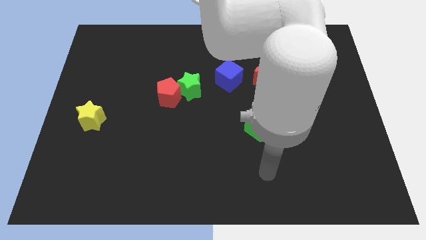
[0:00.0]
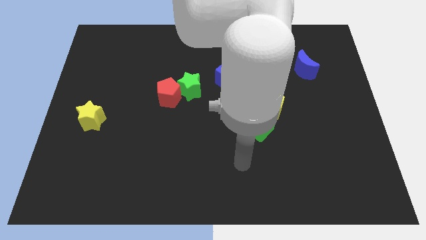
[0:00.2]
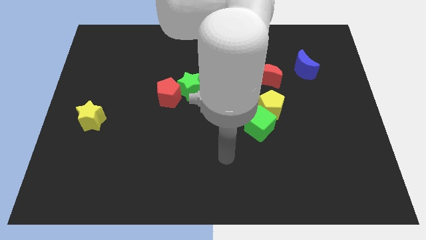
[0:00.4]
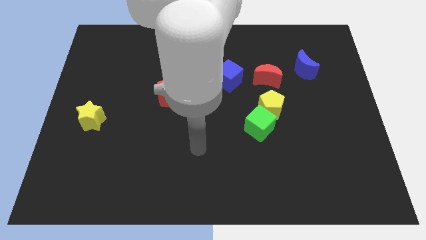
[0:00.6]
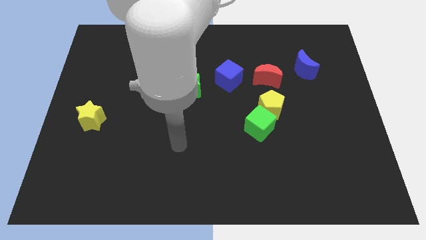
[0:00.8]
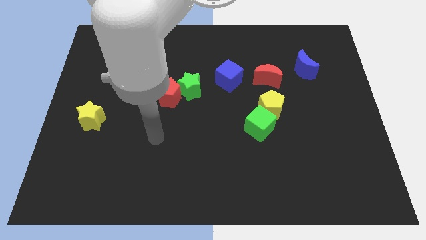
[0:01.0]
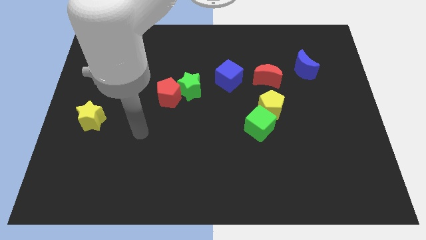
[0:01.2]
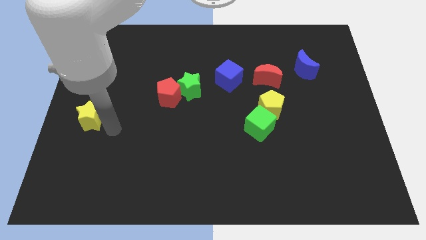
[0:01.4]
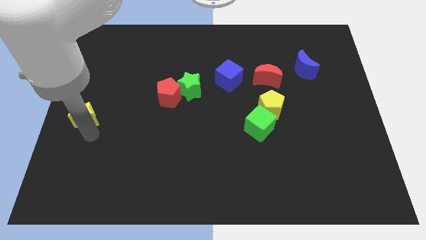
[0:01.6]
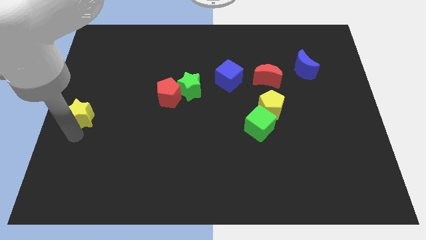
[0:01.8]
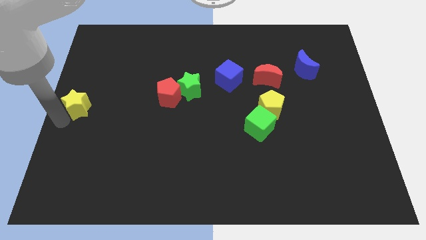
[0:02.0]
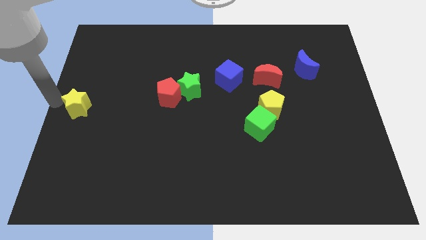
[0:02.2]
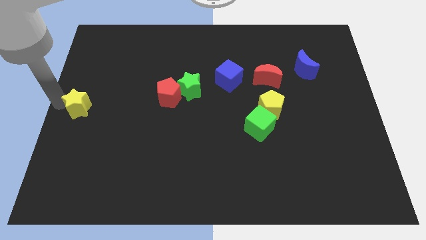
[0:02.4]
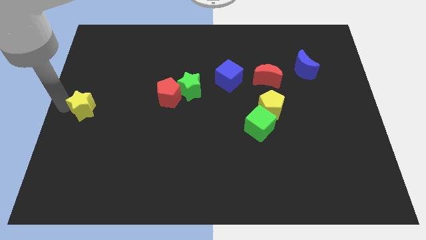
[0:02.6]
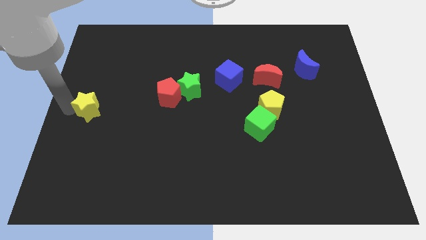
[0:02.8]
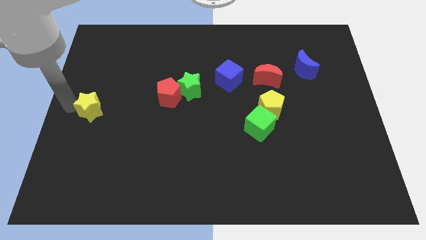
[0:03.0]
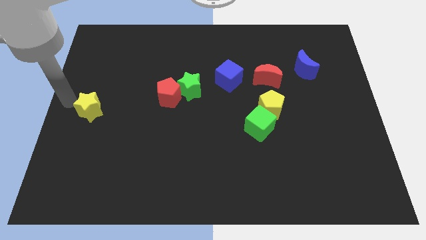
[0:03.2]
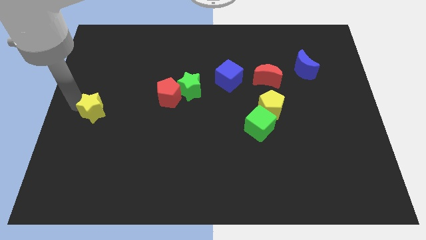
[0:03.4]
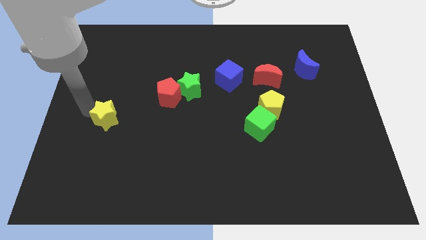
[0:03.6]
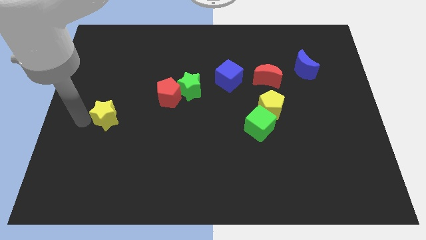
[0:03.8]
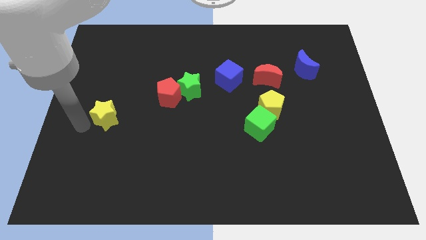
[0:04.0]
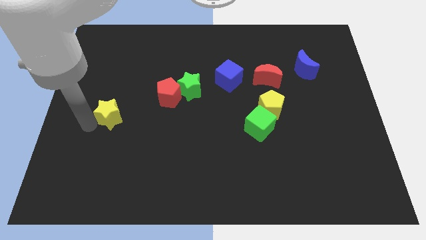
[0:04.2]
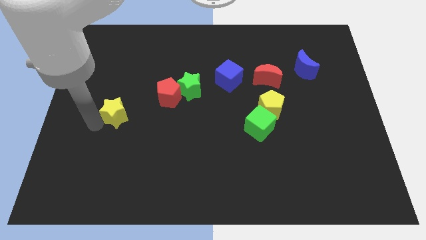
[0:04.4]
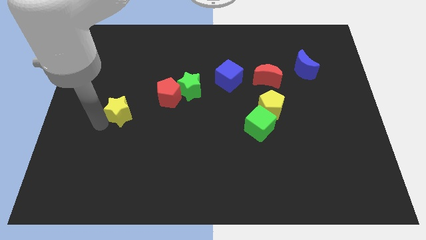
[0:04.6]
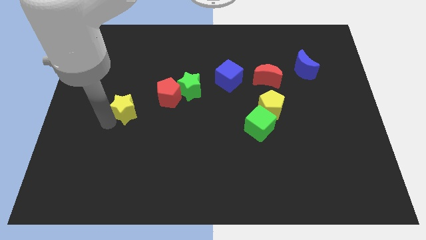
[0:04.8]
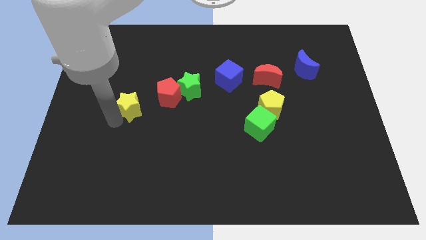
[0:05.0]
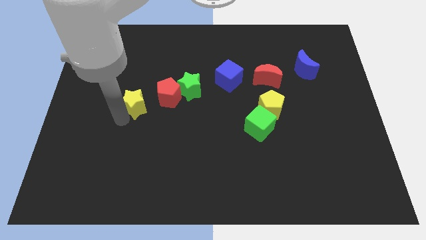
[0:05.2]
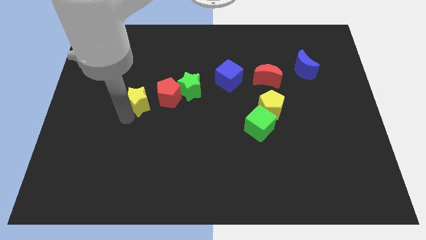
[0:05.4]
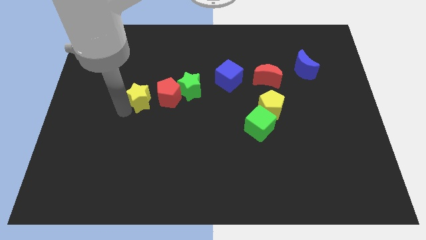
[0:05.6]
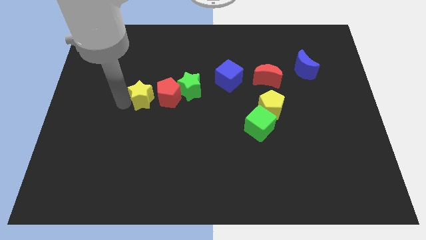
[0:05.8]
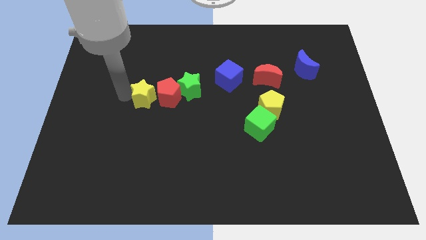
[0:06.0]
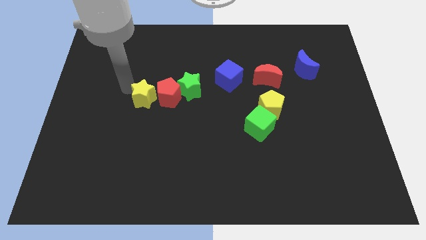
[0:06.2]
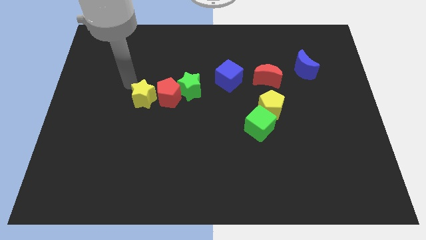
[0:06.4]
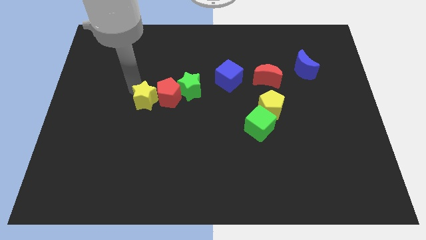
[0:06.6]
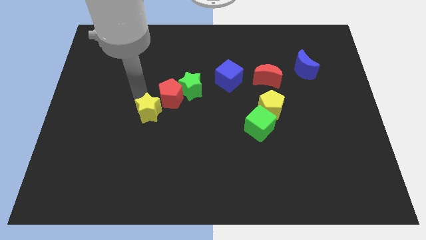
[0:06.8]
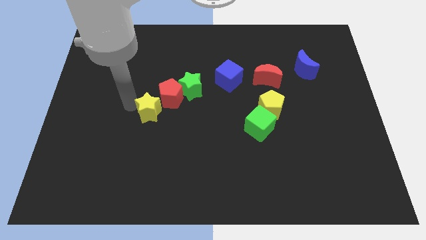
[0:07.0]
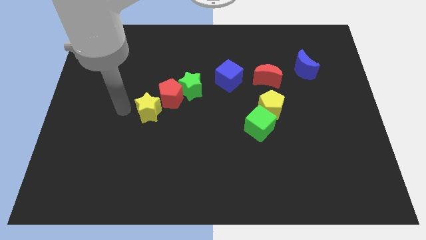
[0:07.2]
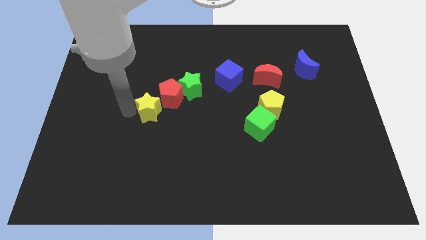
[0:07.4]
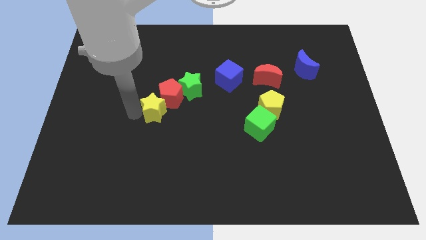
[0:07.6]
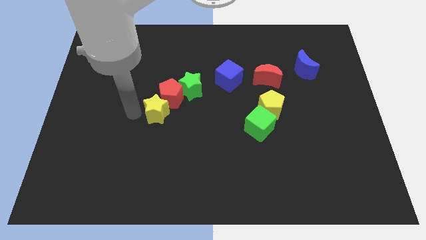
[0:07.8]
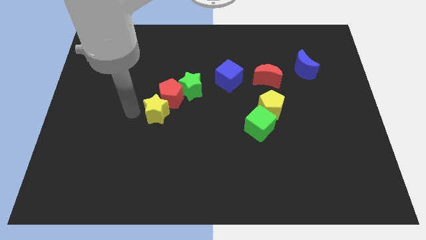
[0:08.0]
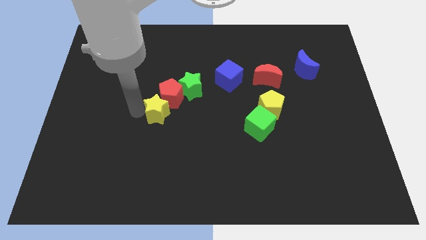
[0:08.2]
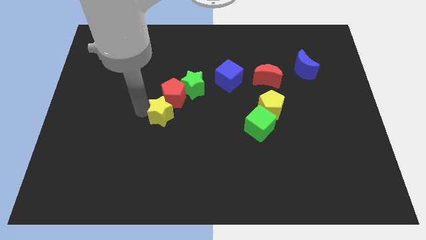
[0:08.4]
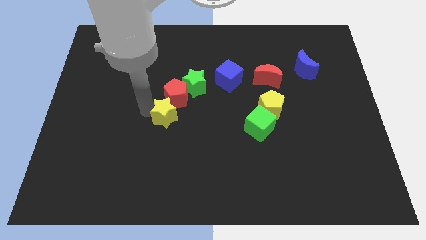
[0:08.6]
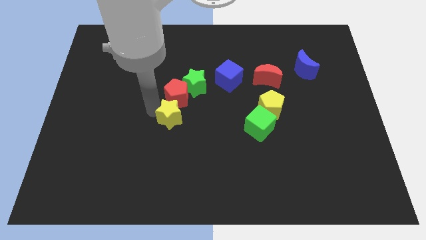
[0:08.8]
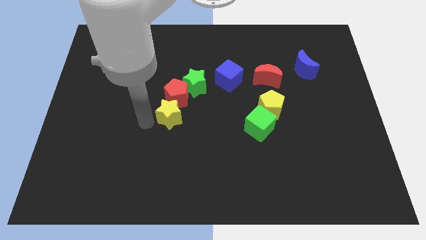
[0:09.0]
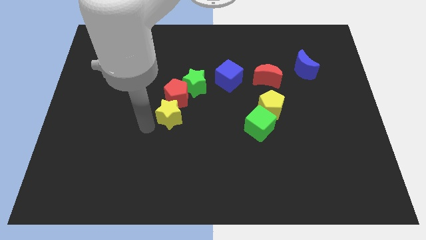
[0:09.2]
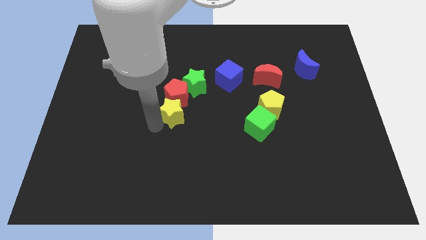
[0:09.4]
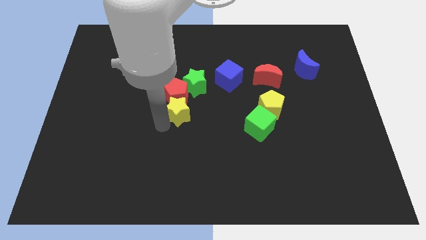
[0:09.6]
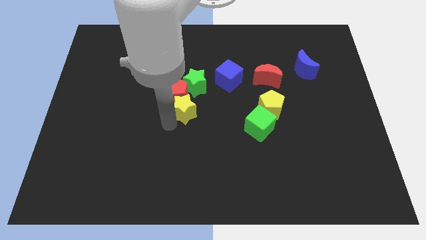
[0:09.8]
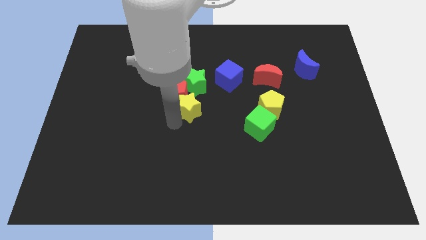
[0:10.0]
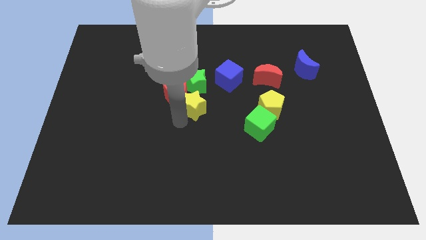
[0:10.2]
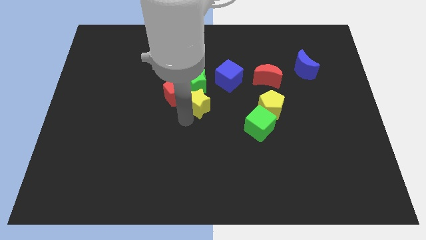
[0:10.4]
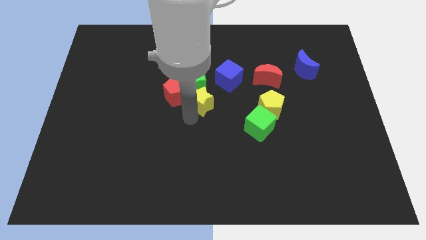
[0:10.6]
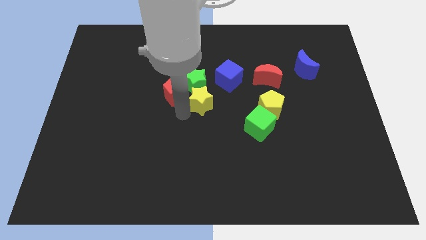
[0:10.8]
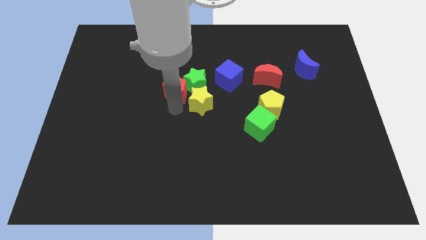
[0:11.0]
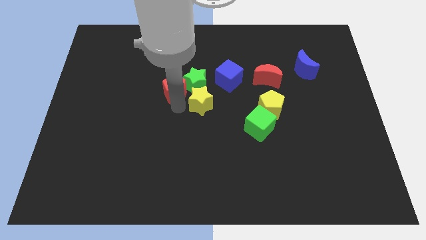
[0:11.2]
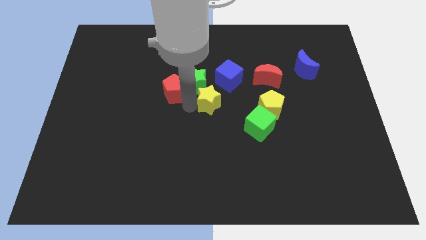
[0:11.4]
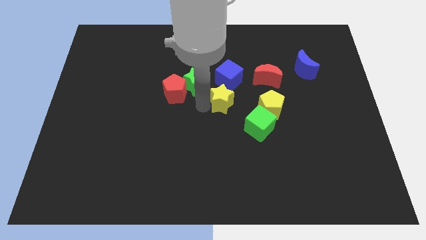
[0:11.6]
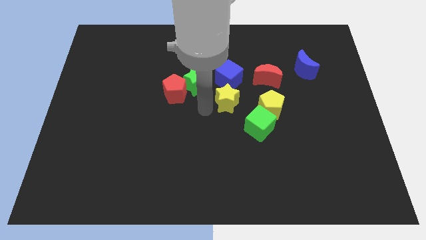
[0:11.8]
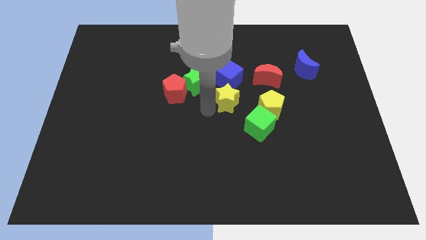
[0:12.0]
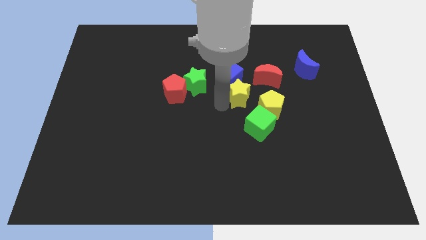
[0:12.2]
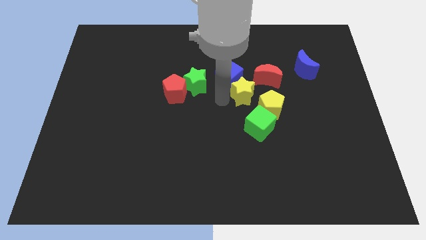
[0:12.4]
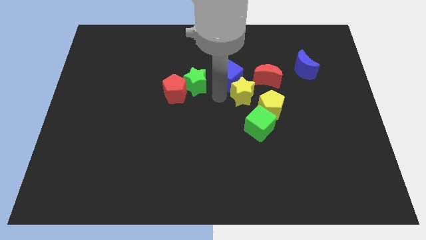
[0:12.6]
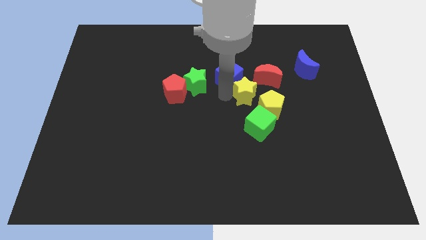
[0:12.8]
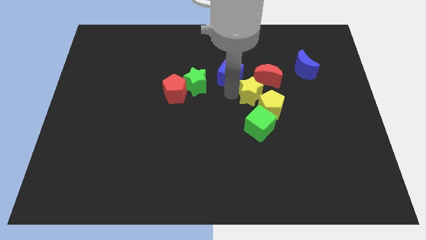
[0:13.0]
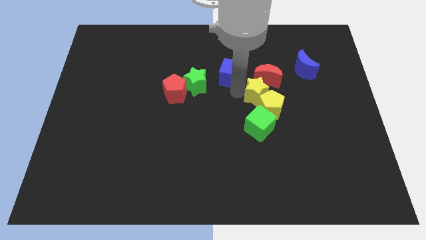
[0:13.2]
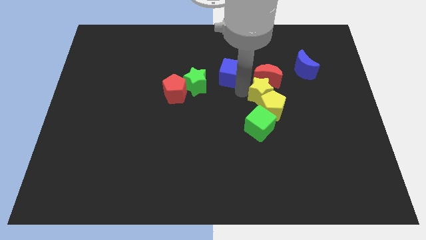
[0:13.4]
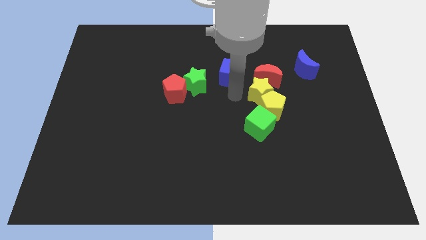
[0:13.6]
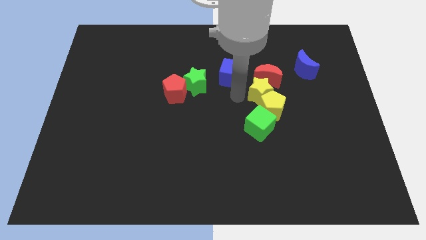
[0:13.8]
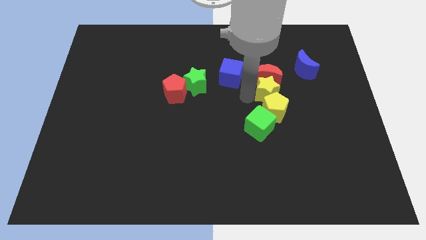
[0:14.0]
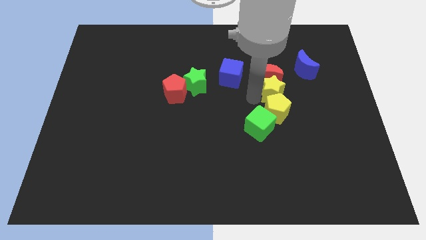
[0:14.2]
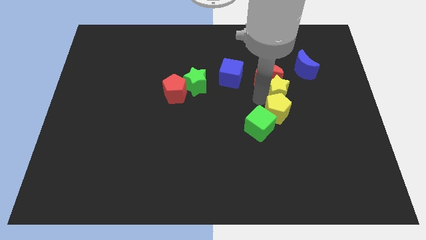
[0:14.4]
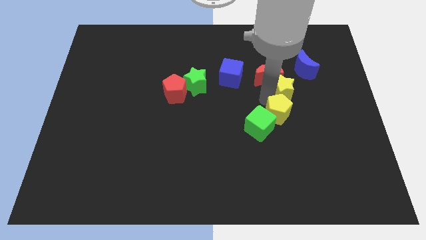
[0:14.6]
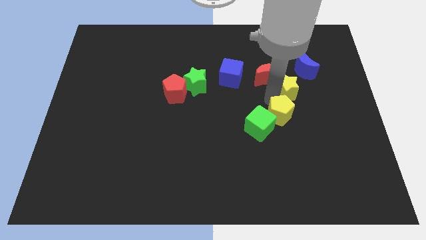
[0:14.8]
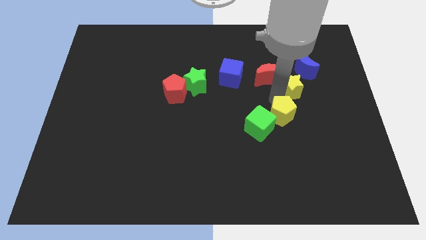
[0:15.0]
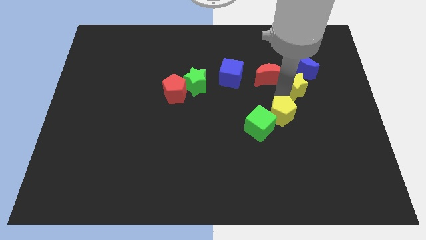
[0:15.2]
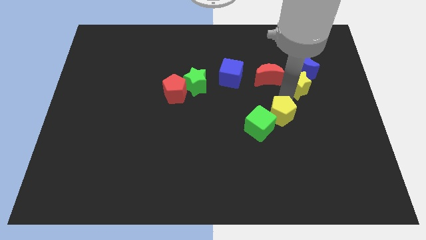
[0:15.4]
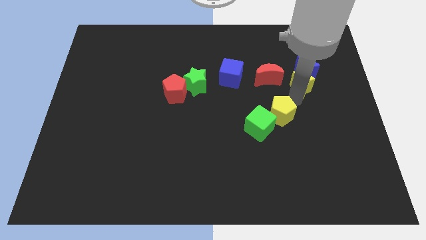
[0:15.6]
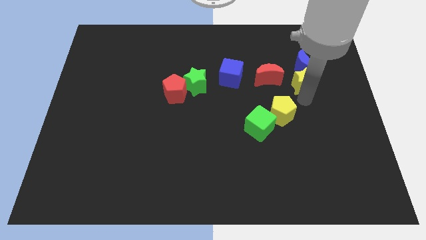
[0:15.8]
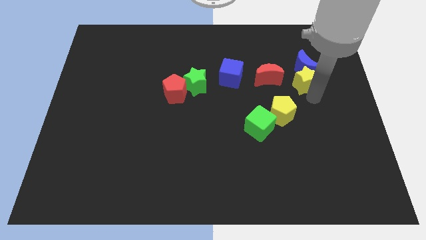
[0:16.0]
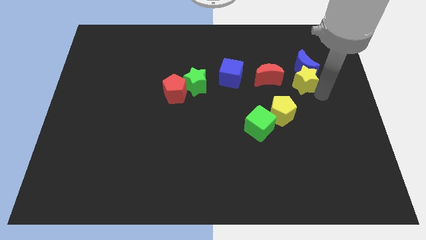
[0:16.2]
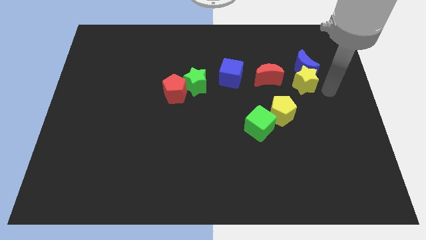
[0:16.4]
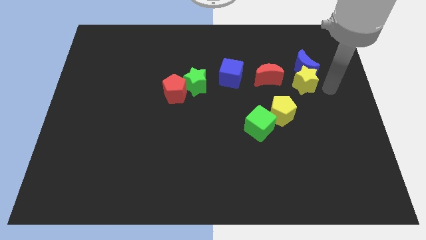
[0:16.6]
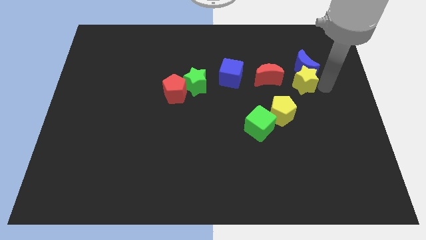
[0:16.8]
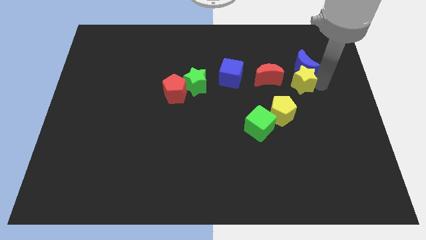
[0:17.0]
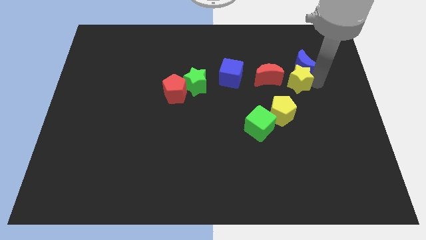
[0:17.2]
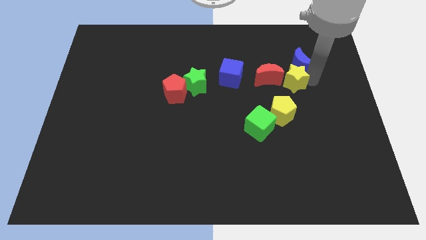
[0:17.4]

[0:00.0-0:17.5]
push the yellow star right of the blue cube
